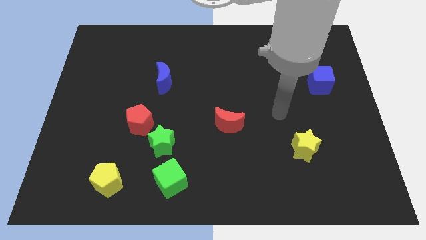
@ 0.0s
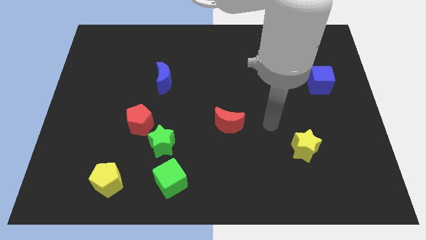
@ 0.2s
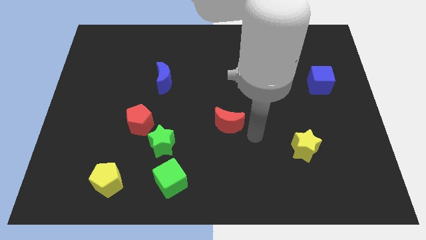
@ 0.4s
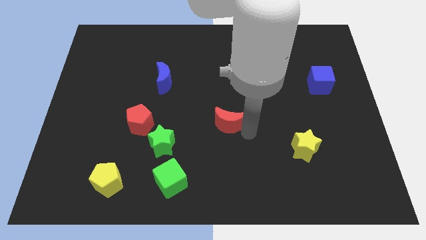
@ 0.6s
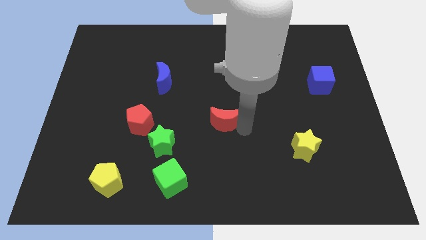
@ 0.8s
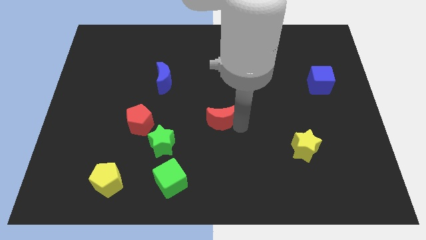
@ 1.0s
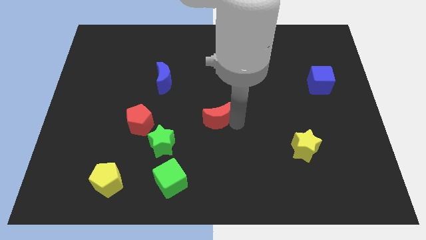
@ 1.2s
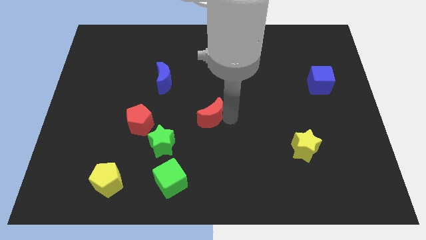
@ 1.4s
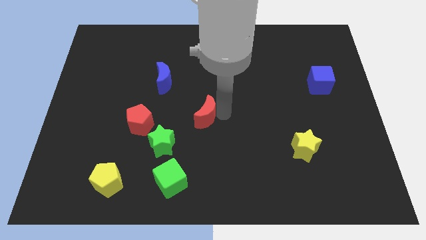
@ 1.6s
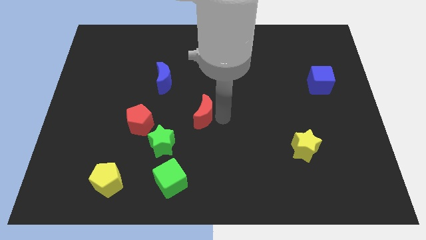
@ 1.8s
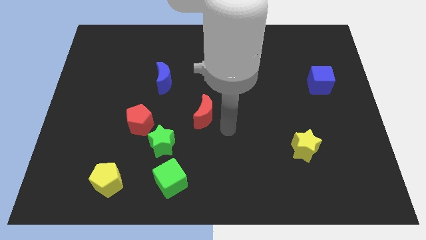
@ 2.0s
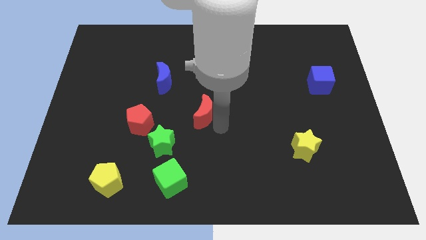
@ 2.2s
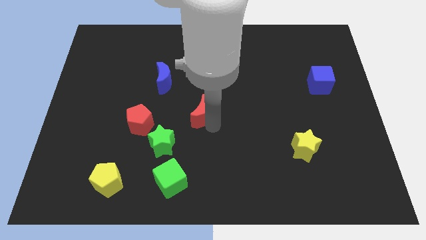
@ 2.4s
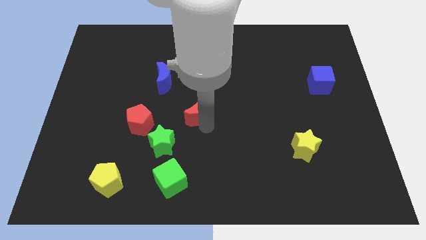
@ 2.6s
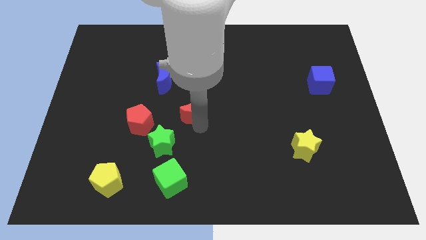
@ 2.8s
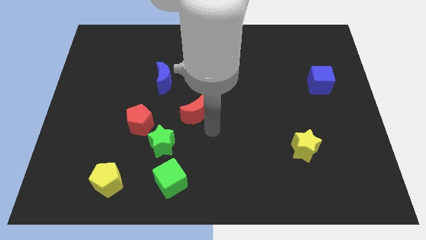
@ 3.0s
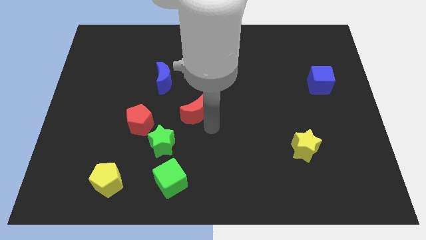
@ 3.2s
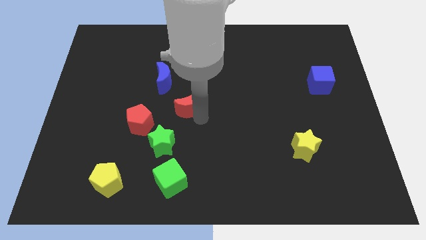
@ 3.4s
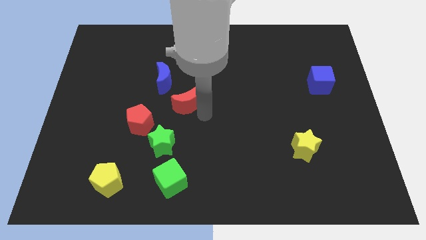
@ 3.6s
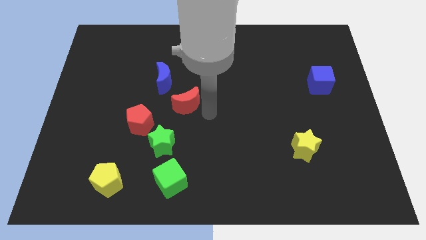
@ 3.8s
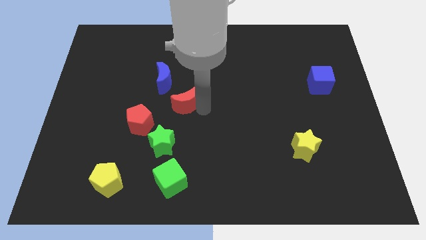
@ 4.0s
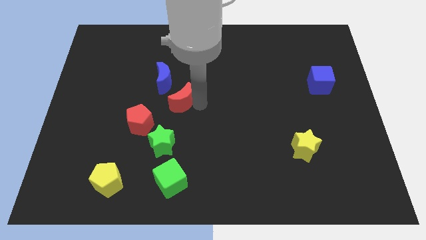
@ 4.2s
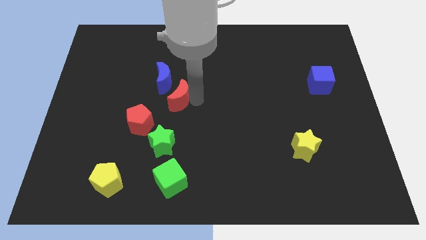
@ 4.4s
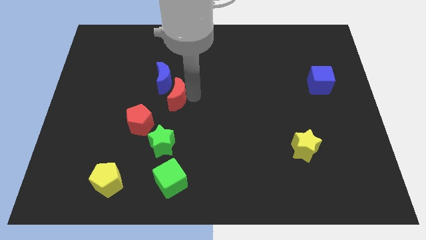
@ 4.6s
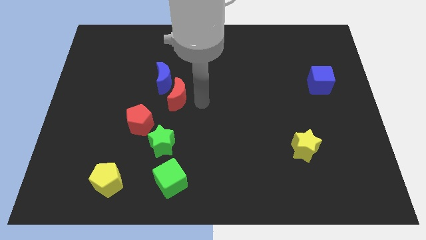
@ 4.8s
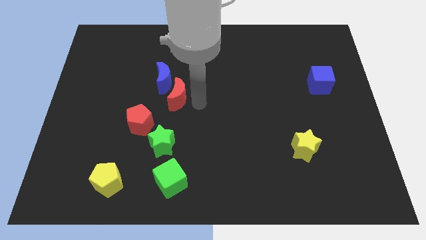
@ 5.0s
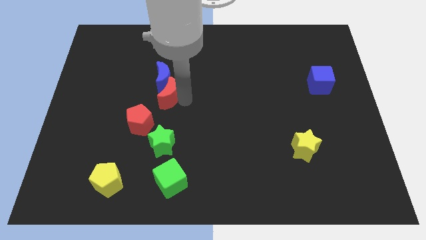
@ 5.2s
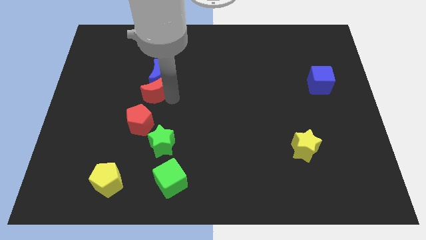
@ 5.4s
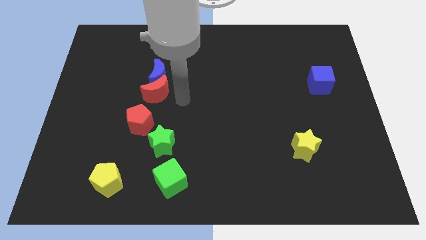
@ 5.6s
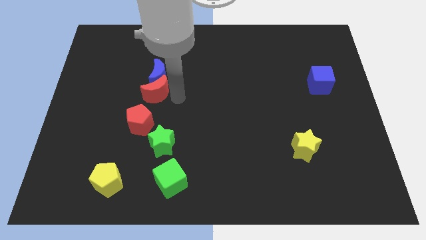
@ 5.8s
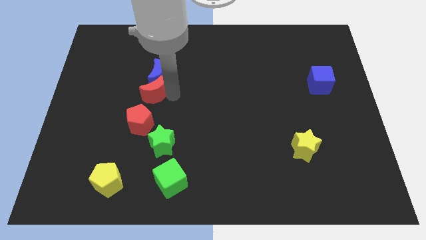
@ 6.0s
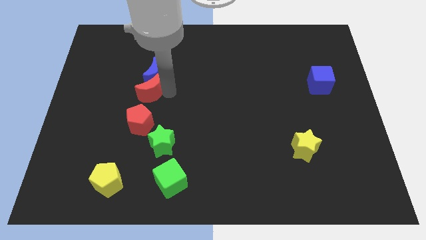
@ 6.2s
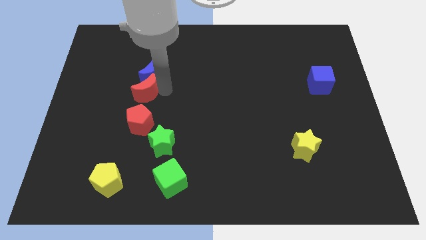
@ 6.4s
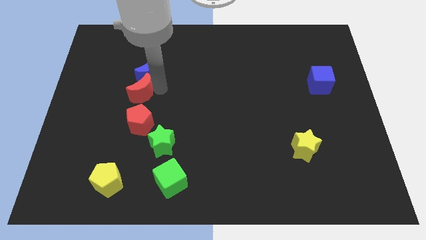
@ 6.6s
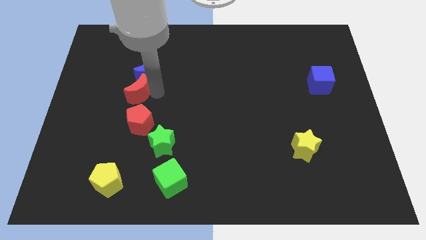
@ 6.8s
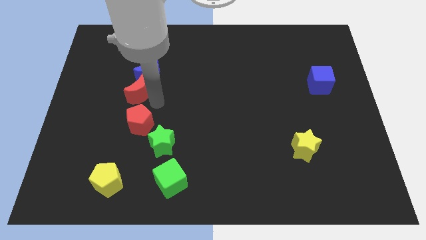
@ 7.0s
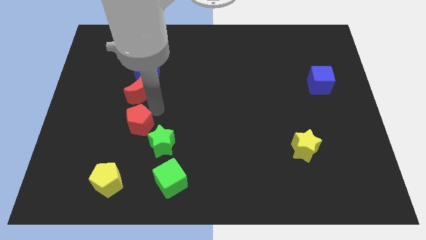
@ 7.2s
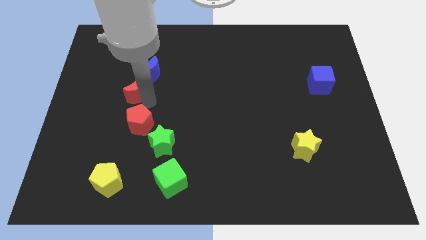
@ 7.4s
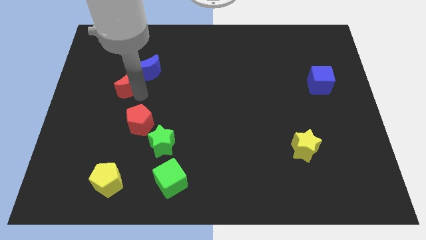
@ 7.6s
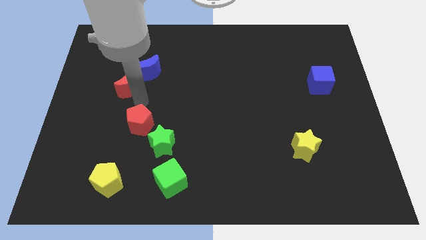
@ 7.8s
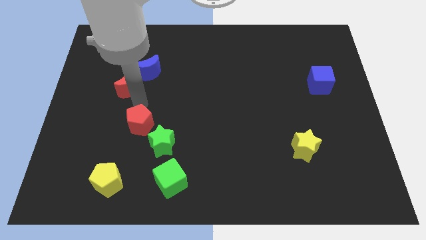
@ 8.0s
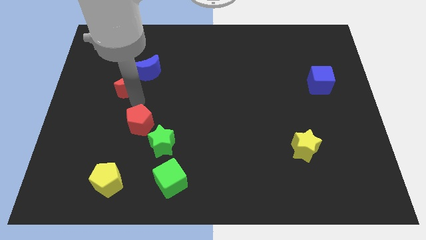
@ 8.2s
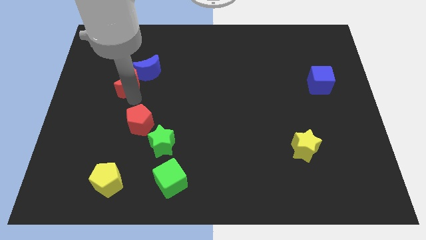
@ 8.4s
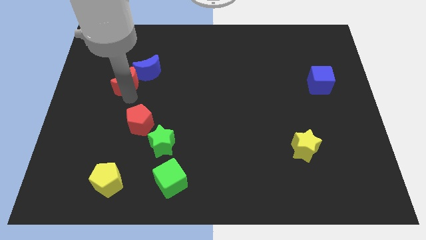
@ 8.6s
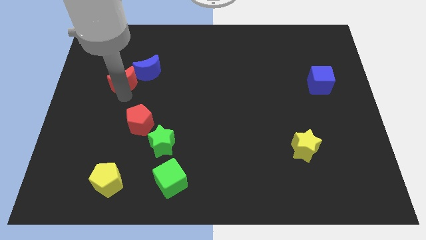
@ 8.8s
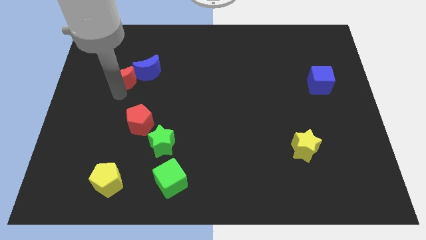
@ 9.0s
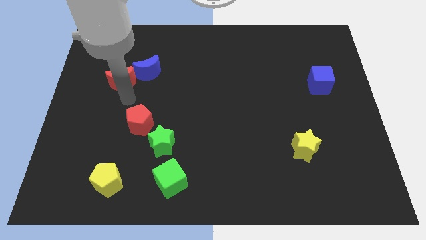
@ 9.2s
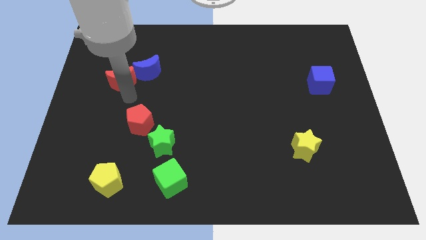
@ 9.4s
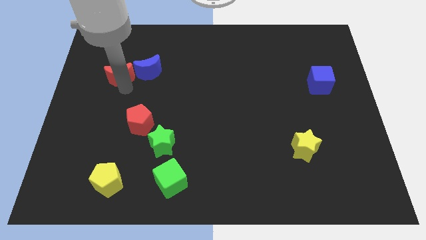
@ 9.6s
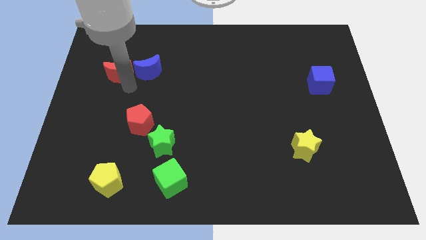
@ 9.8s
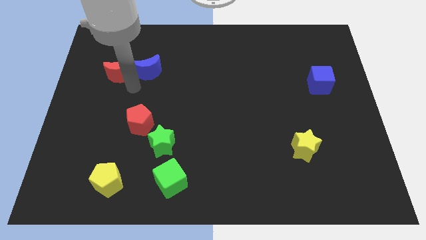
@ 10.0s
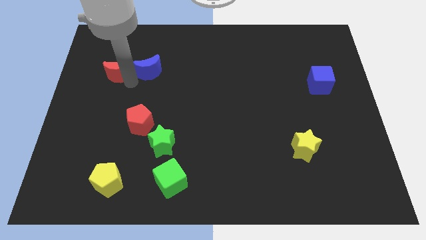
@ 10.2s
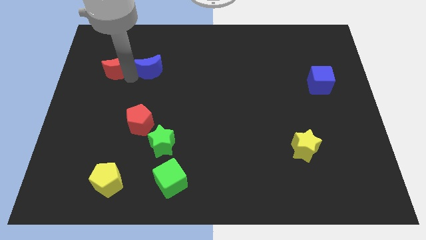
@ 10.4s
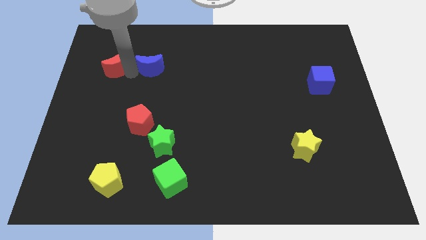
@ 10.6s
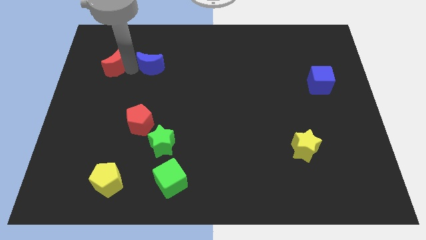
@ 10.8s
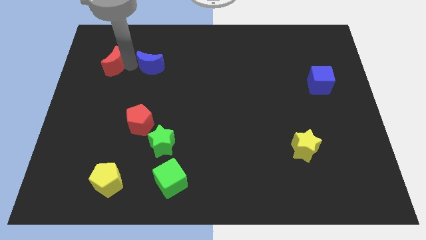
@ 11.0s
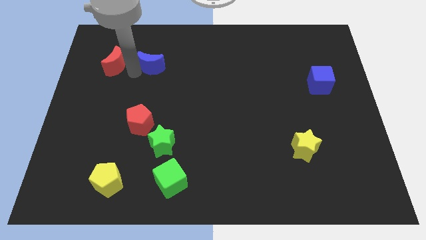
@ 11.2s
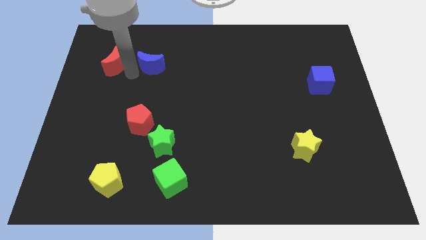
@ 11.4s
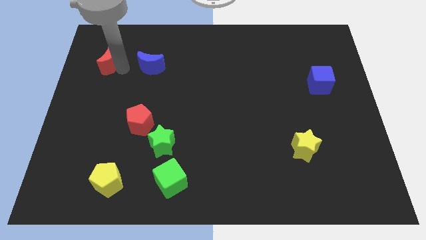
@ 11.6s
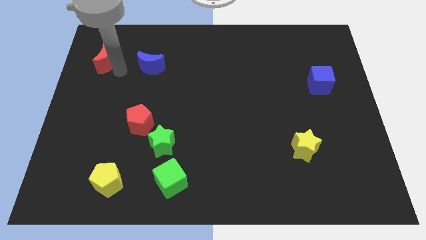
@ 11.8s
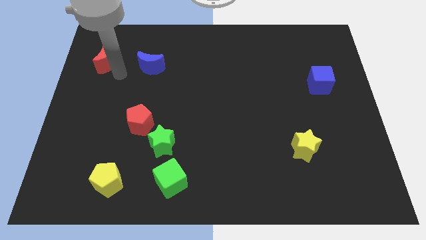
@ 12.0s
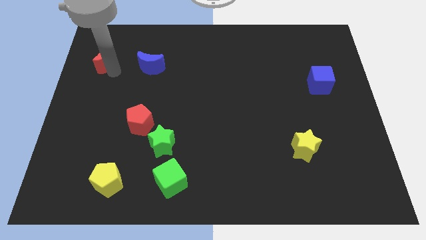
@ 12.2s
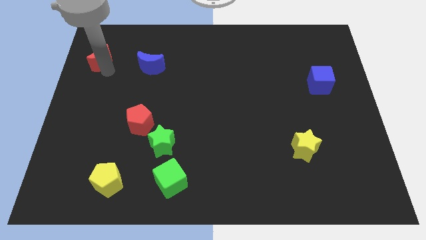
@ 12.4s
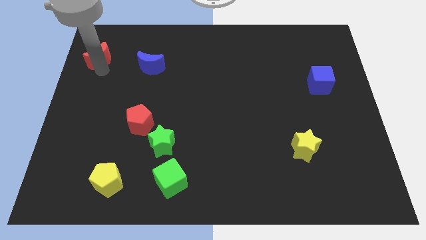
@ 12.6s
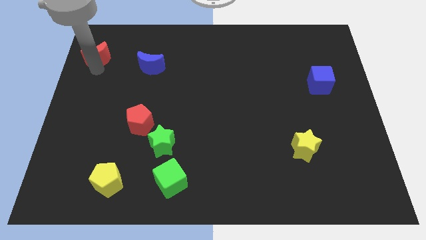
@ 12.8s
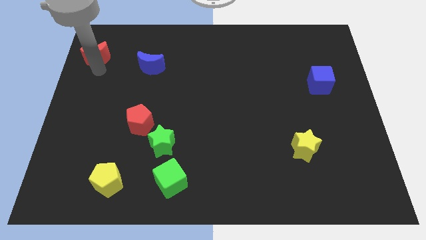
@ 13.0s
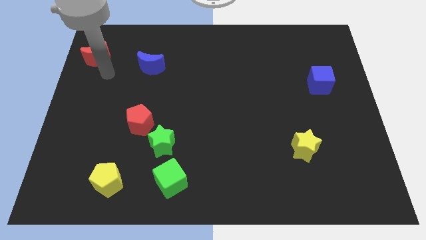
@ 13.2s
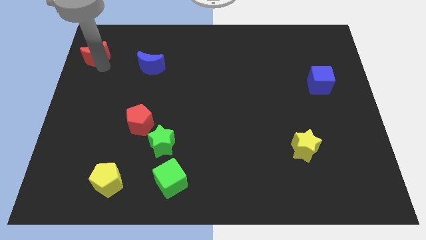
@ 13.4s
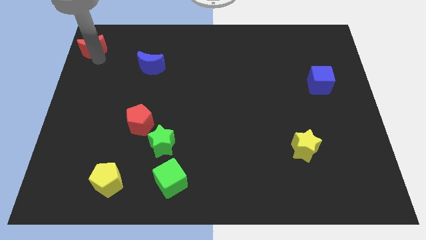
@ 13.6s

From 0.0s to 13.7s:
push the red moon to the upper left corner
